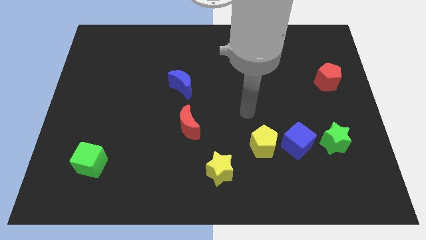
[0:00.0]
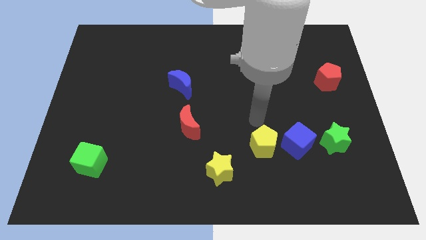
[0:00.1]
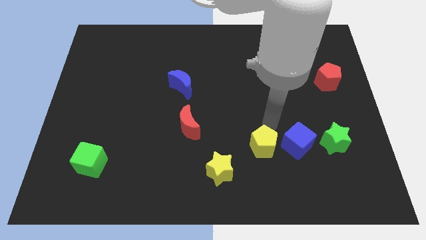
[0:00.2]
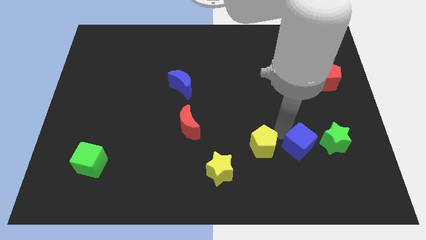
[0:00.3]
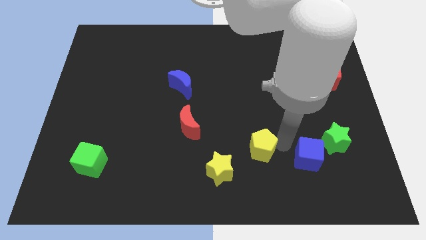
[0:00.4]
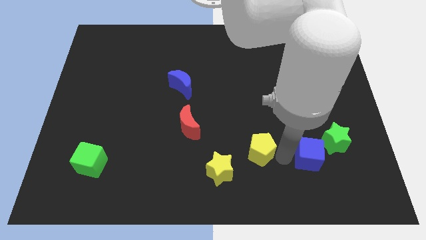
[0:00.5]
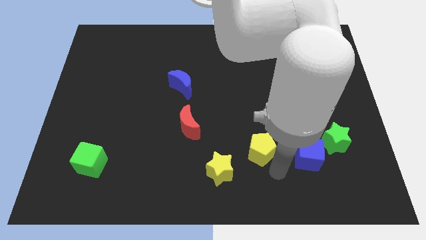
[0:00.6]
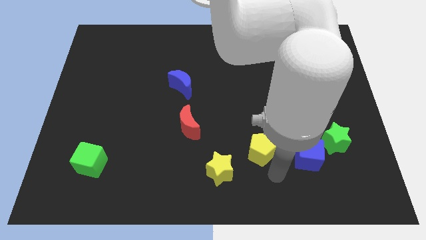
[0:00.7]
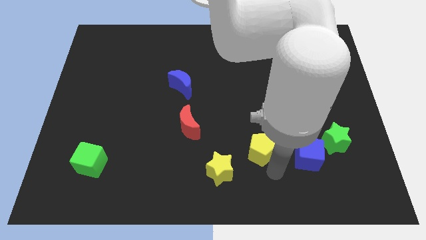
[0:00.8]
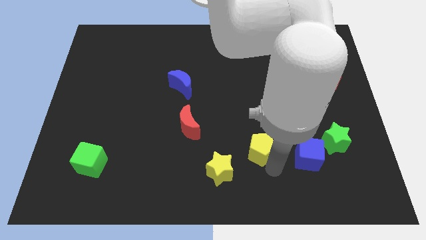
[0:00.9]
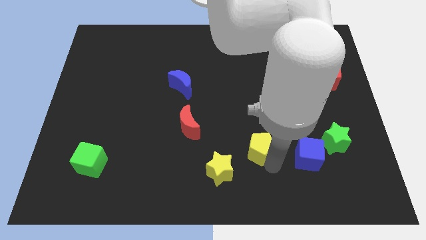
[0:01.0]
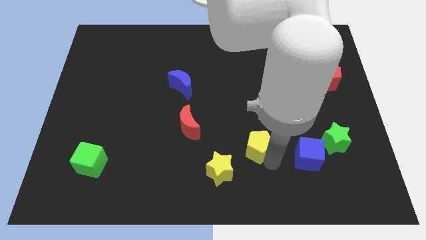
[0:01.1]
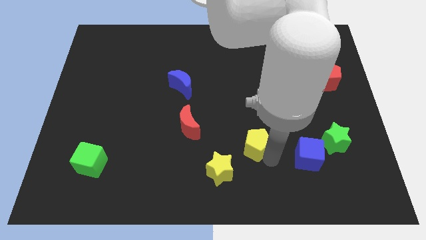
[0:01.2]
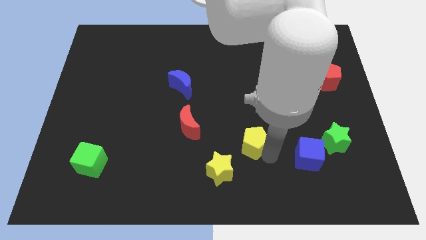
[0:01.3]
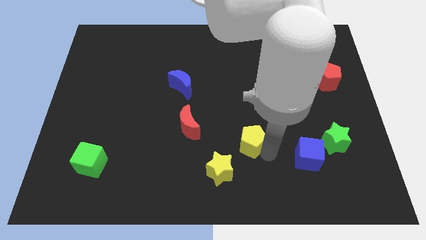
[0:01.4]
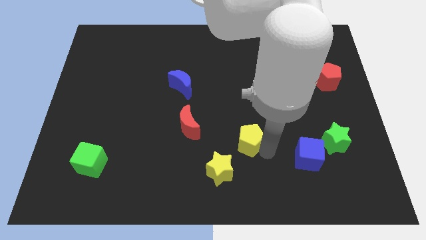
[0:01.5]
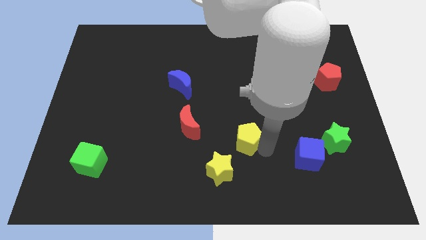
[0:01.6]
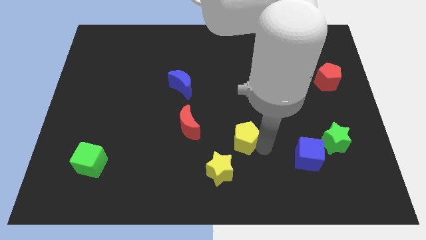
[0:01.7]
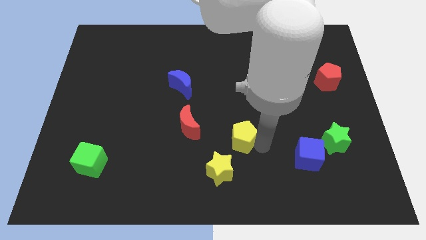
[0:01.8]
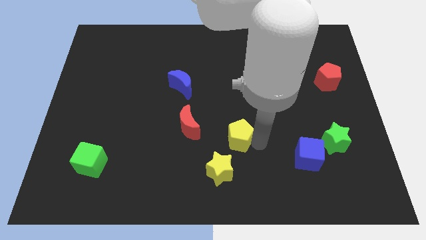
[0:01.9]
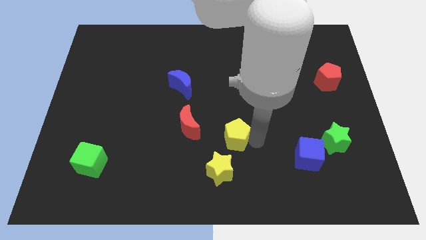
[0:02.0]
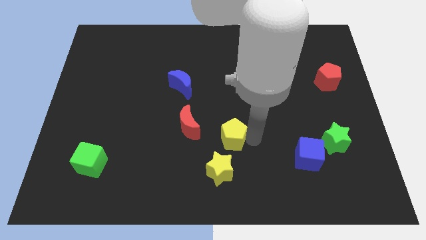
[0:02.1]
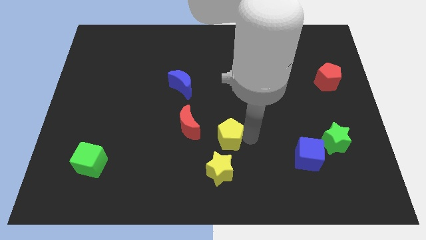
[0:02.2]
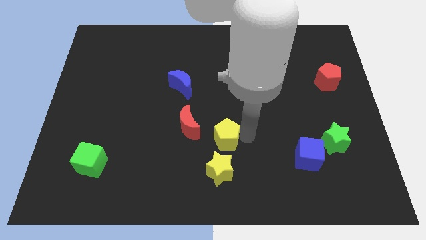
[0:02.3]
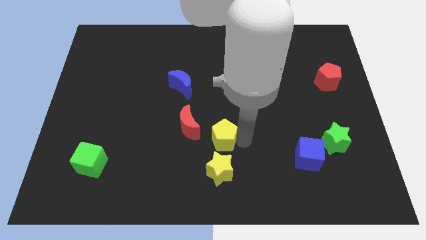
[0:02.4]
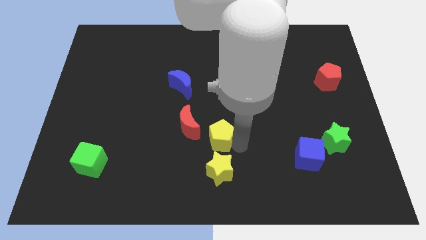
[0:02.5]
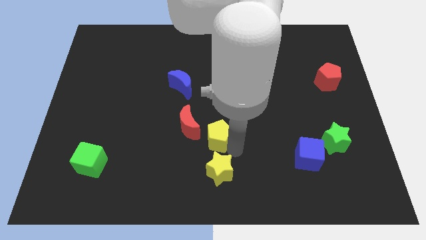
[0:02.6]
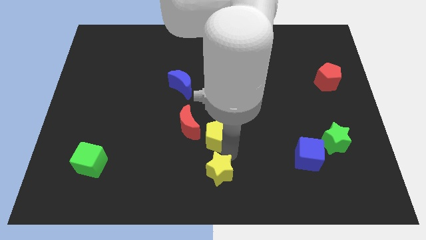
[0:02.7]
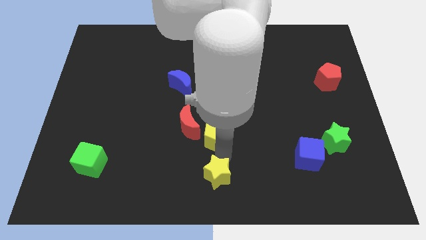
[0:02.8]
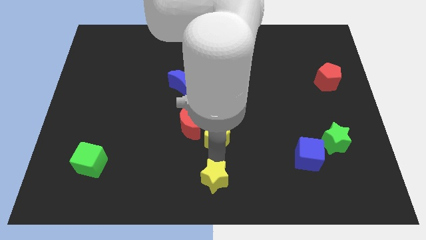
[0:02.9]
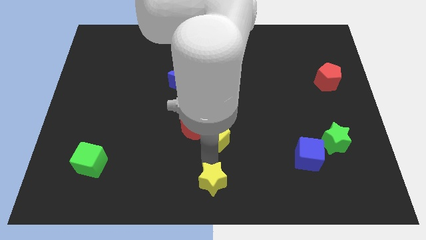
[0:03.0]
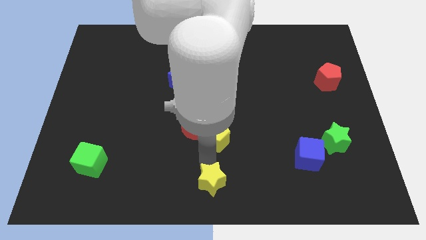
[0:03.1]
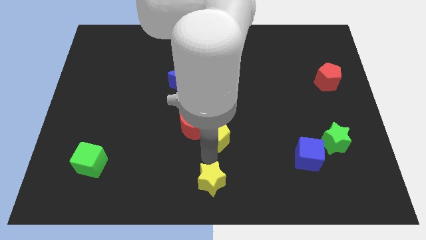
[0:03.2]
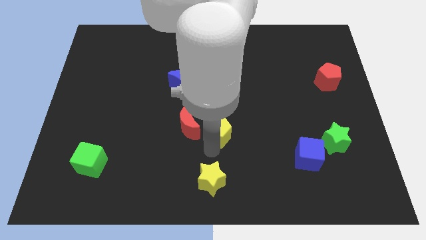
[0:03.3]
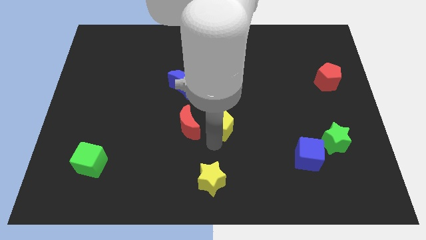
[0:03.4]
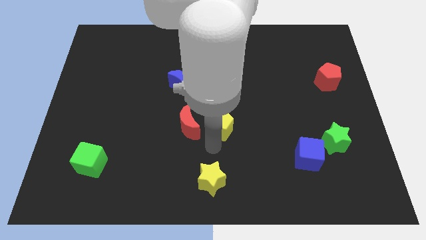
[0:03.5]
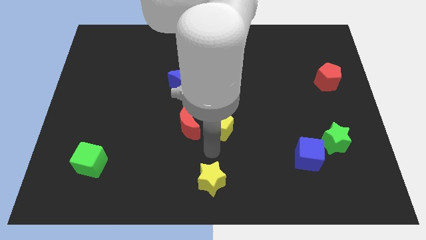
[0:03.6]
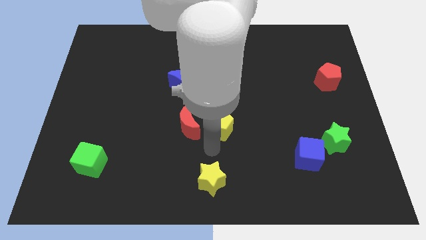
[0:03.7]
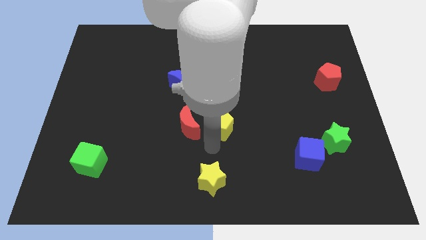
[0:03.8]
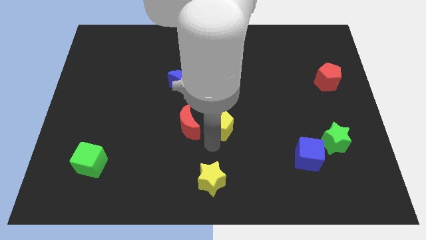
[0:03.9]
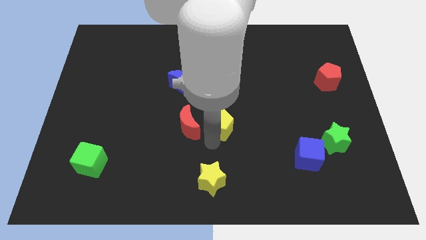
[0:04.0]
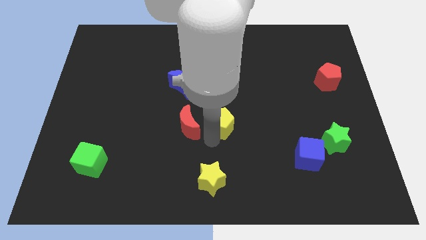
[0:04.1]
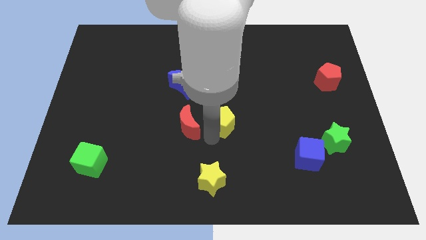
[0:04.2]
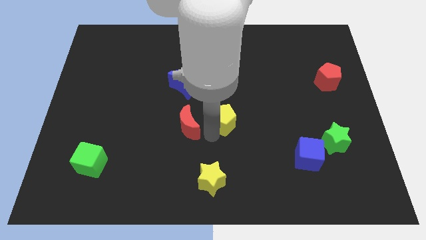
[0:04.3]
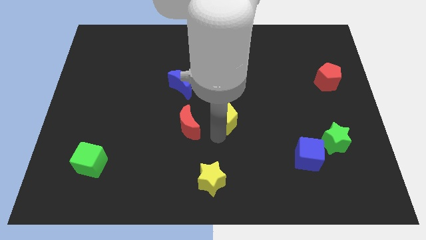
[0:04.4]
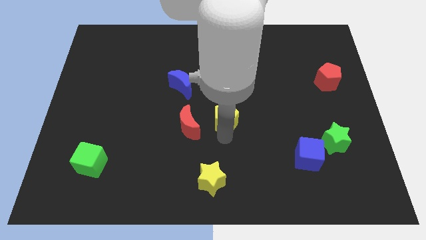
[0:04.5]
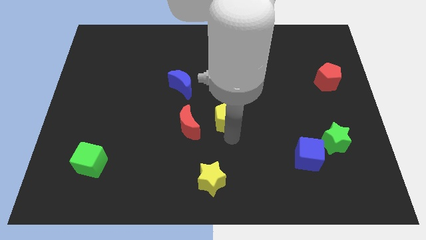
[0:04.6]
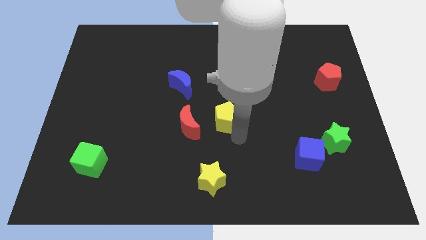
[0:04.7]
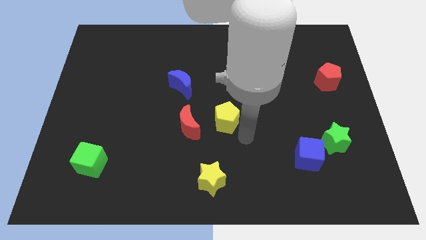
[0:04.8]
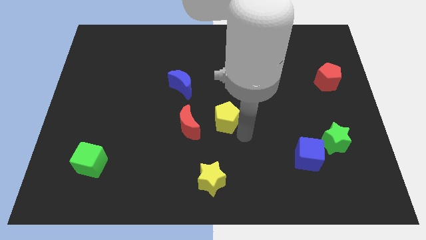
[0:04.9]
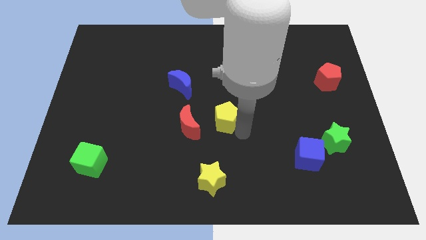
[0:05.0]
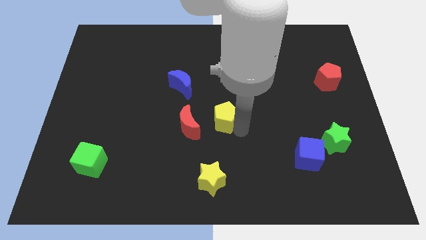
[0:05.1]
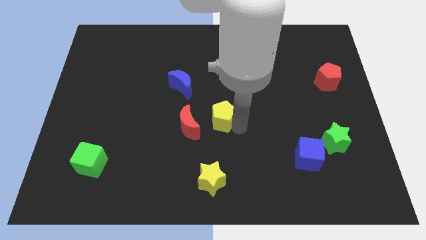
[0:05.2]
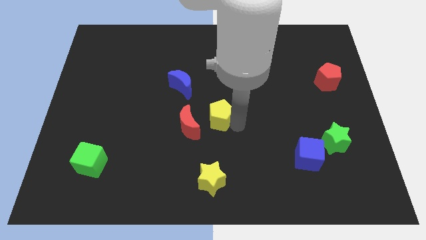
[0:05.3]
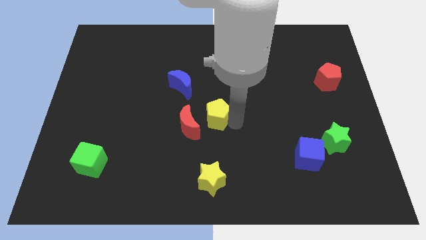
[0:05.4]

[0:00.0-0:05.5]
put the yellow pentagon diagonally down and to the right of the blue moon

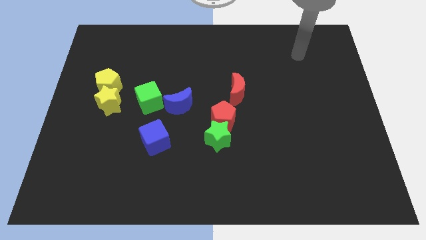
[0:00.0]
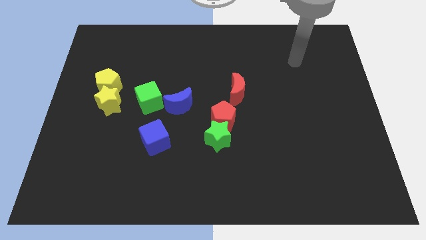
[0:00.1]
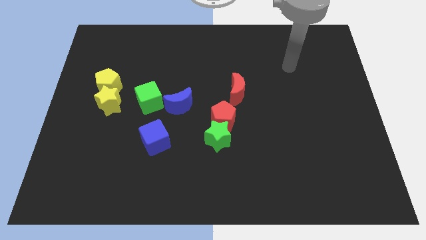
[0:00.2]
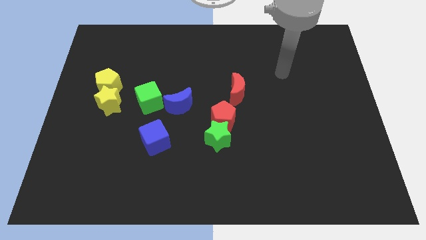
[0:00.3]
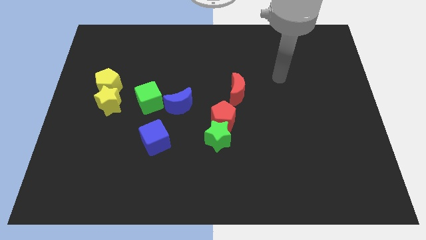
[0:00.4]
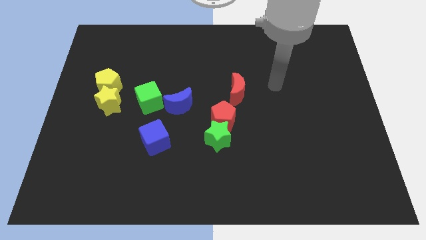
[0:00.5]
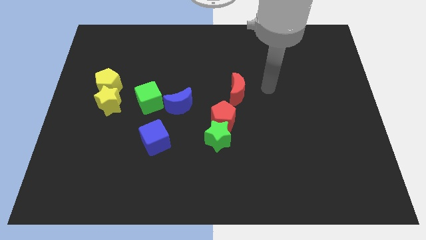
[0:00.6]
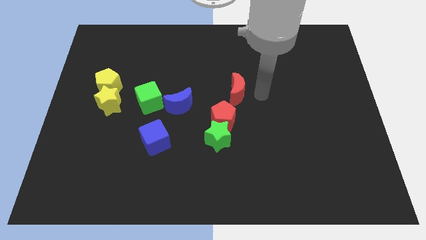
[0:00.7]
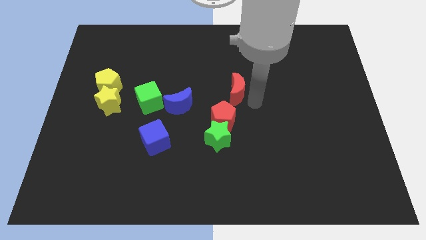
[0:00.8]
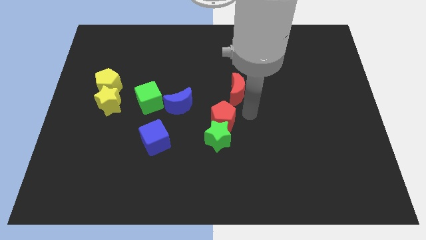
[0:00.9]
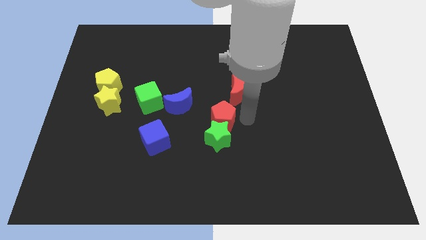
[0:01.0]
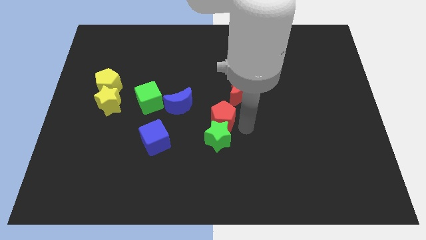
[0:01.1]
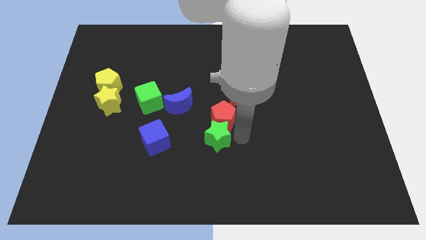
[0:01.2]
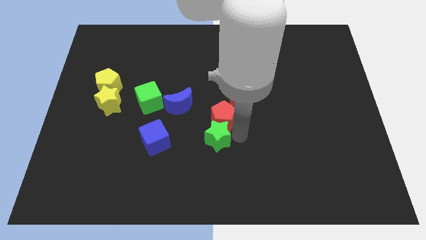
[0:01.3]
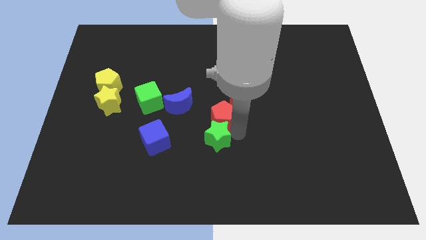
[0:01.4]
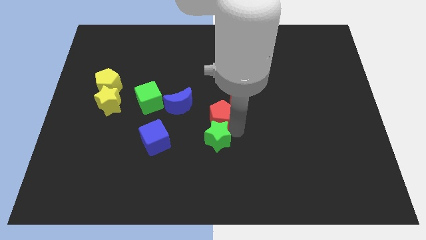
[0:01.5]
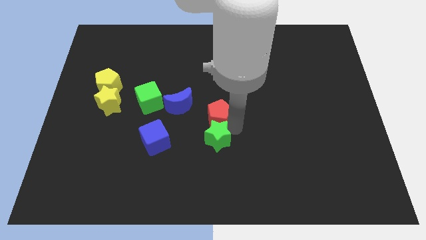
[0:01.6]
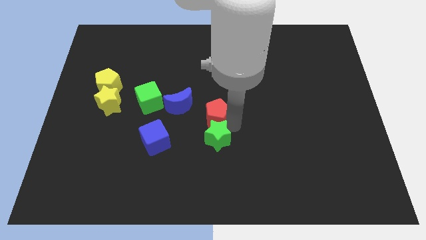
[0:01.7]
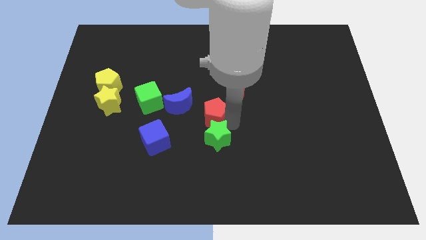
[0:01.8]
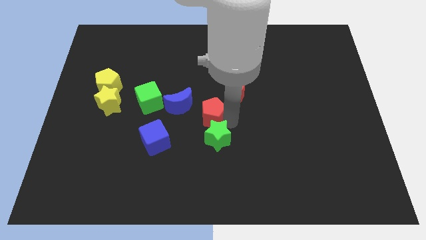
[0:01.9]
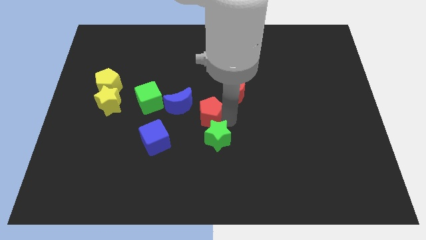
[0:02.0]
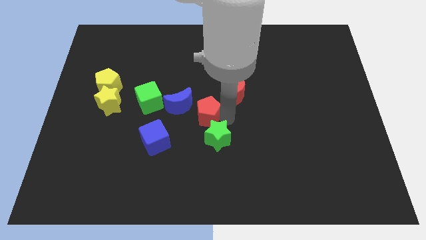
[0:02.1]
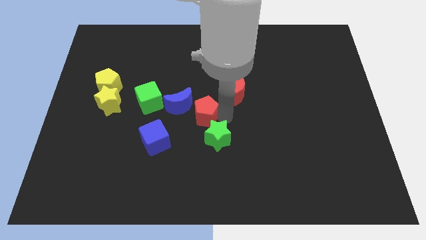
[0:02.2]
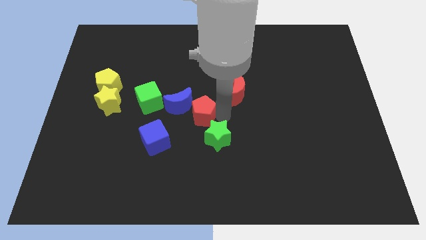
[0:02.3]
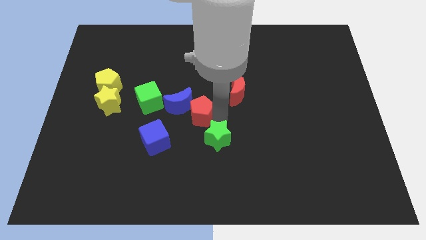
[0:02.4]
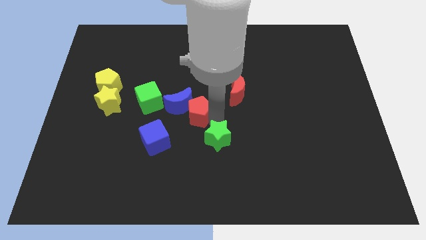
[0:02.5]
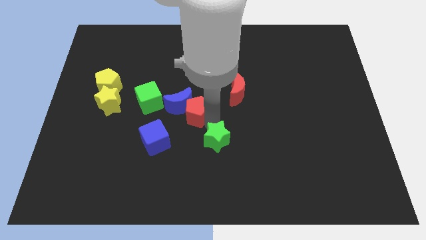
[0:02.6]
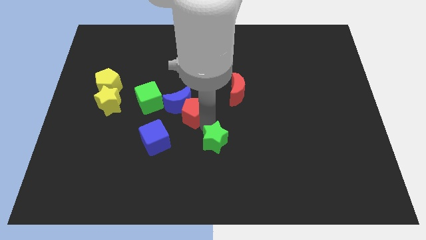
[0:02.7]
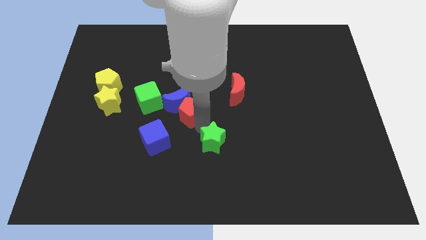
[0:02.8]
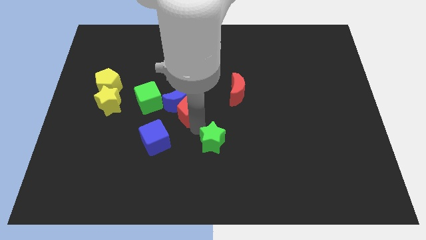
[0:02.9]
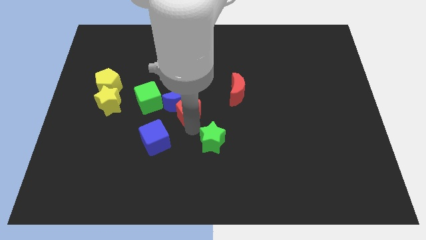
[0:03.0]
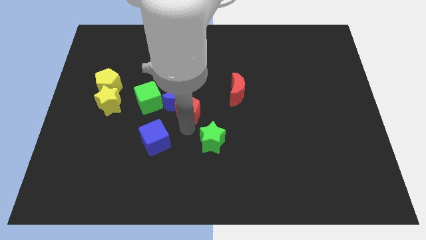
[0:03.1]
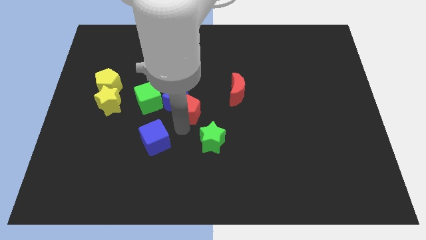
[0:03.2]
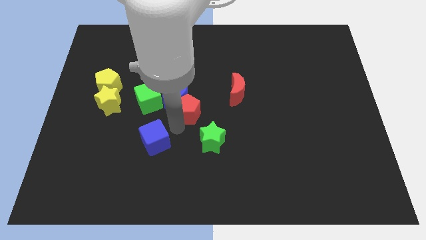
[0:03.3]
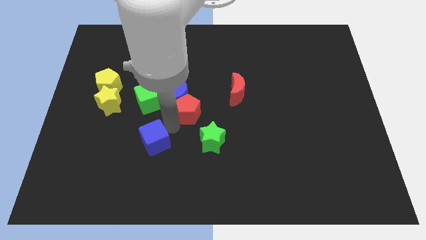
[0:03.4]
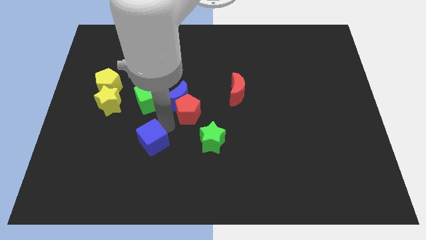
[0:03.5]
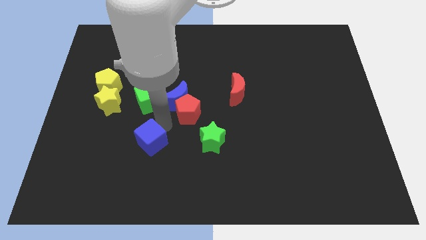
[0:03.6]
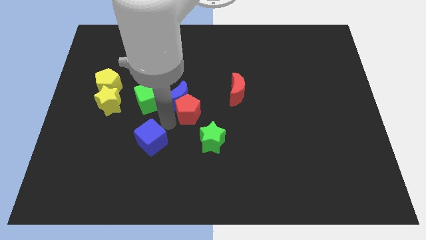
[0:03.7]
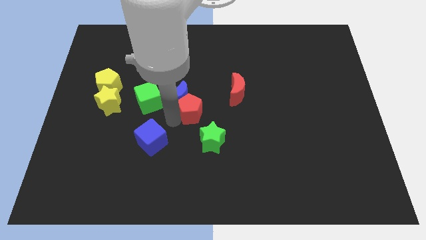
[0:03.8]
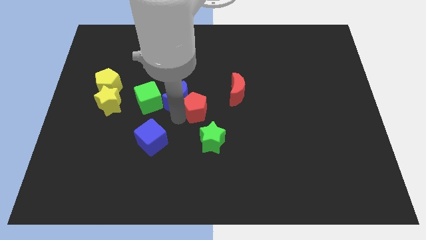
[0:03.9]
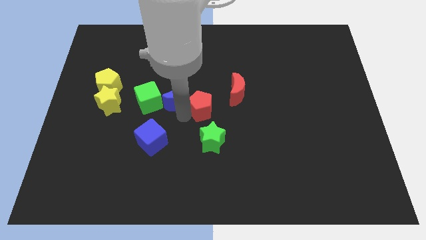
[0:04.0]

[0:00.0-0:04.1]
slide the red pentagon just left of the red moon
